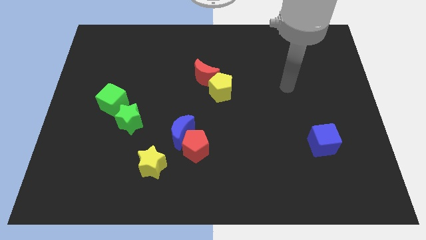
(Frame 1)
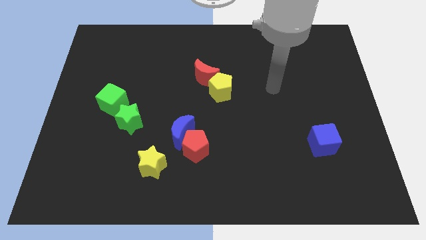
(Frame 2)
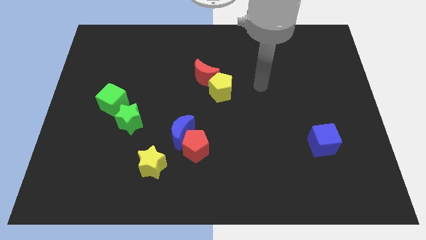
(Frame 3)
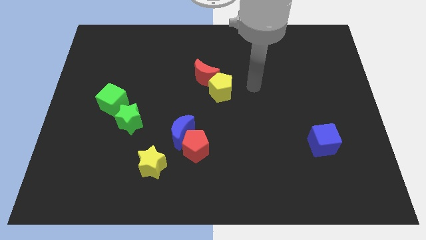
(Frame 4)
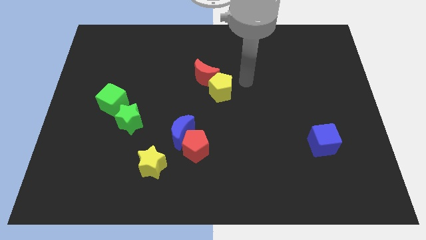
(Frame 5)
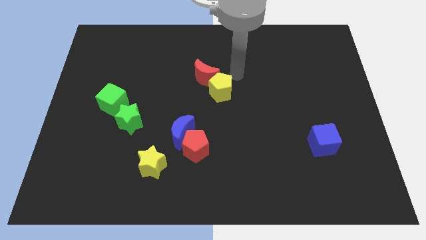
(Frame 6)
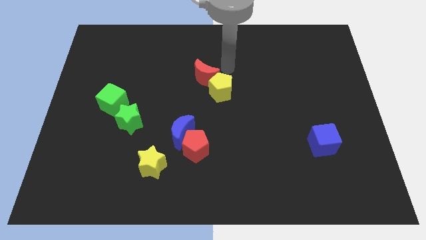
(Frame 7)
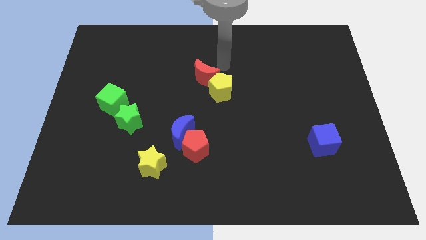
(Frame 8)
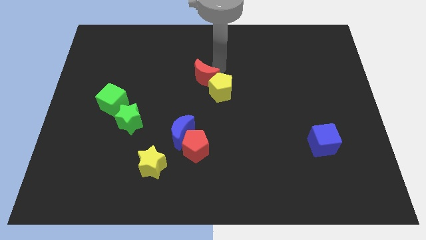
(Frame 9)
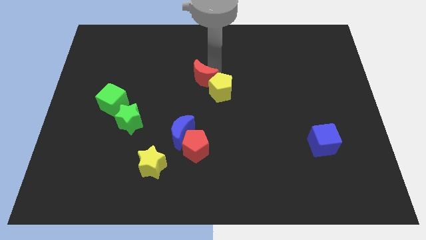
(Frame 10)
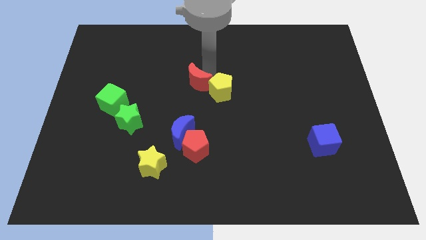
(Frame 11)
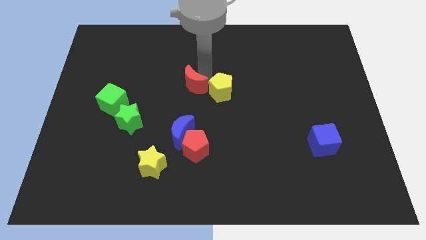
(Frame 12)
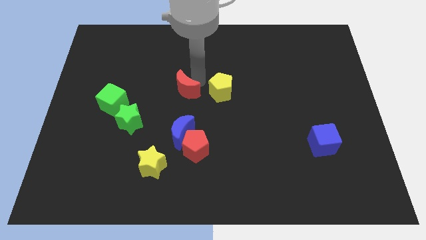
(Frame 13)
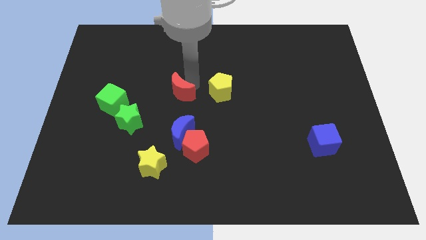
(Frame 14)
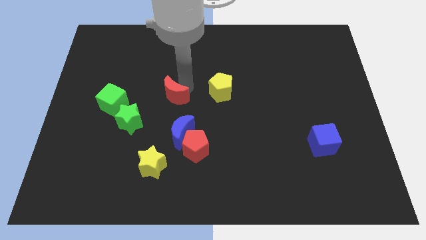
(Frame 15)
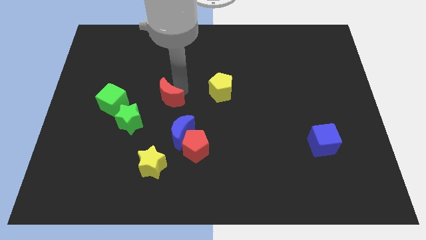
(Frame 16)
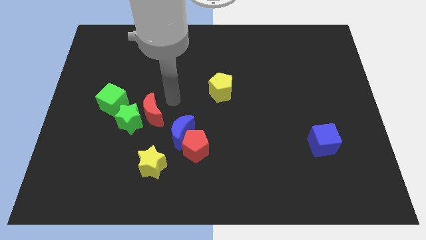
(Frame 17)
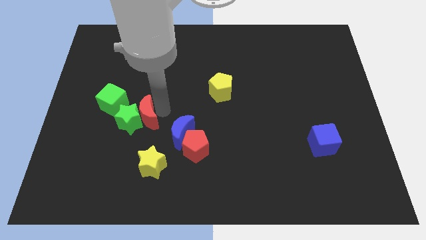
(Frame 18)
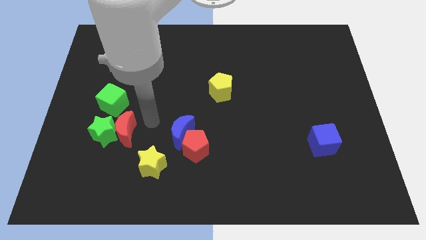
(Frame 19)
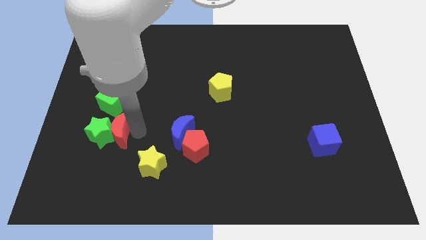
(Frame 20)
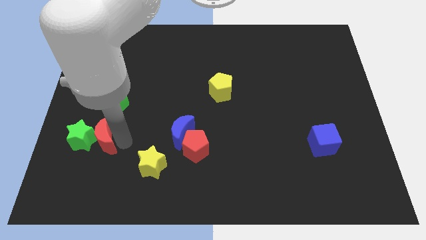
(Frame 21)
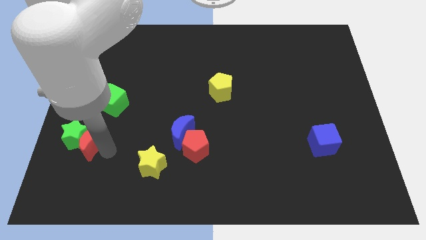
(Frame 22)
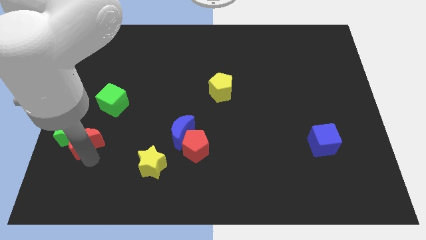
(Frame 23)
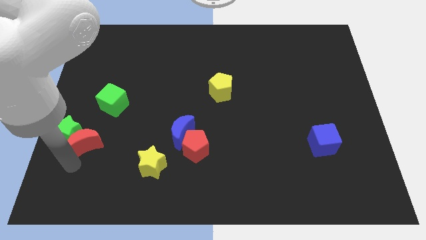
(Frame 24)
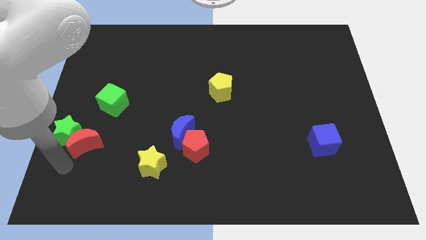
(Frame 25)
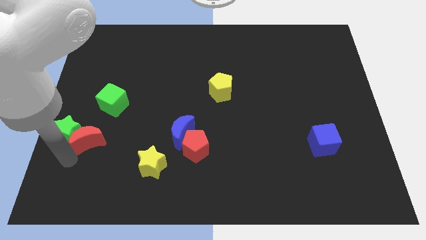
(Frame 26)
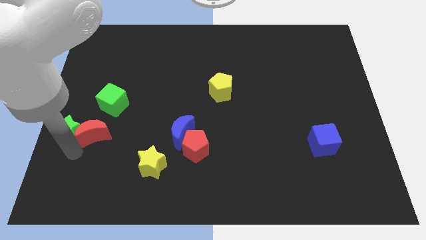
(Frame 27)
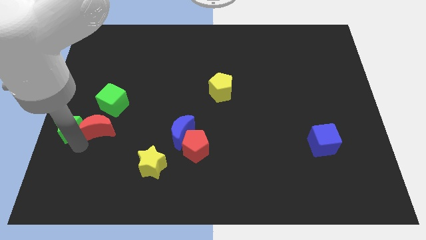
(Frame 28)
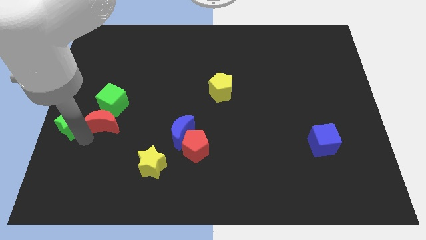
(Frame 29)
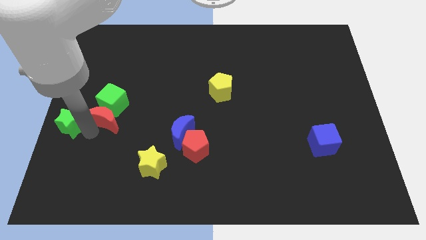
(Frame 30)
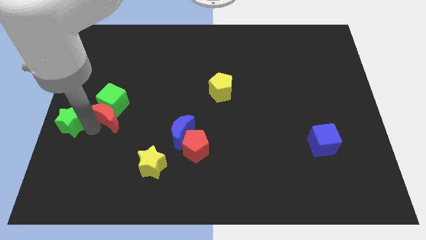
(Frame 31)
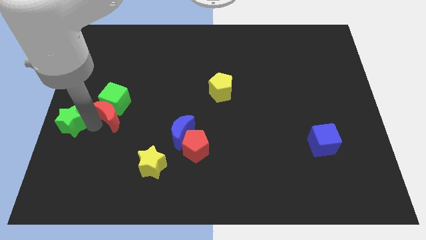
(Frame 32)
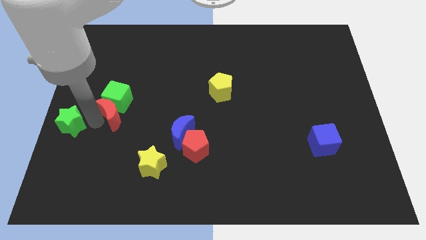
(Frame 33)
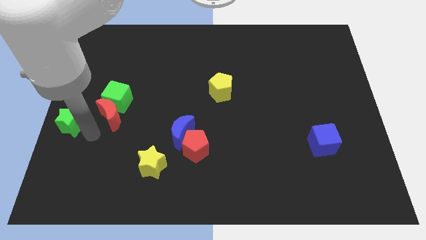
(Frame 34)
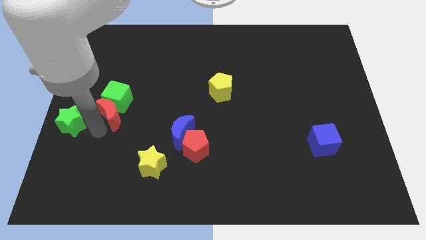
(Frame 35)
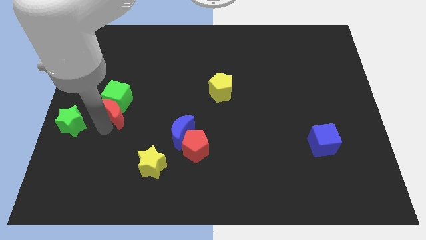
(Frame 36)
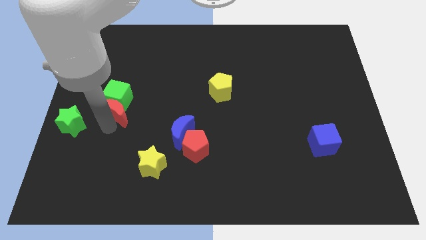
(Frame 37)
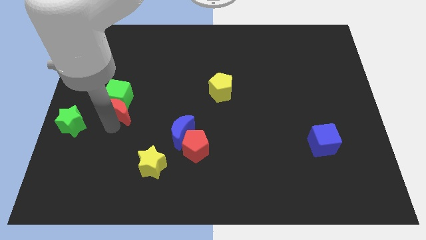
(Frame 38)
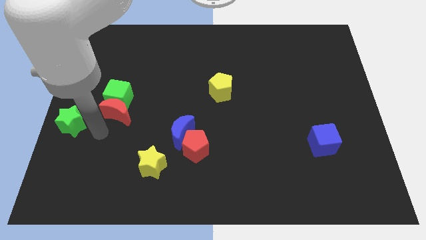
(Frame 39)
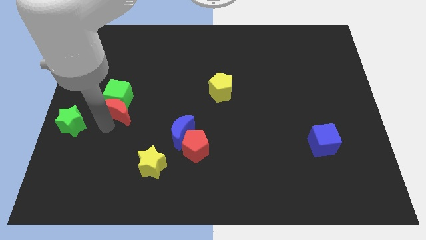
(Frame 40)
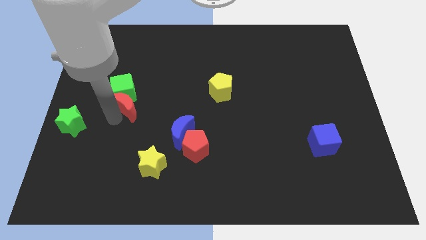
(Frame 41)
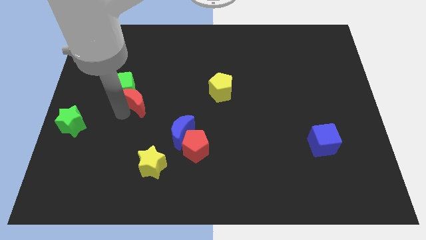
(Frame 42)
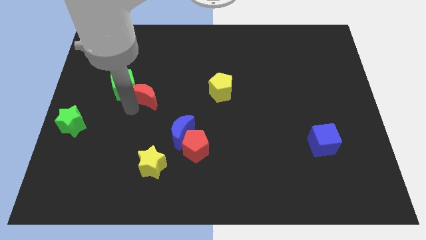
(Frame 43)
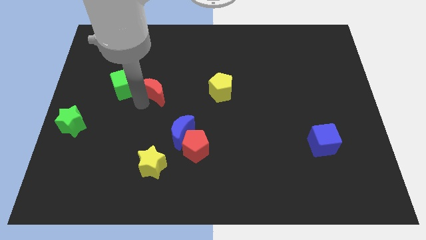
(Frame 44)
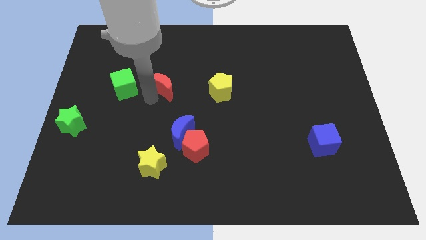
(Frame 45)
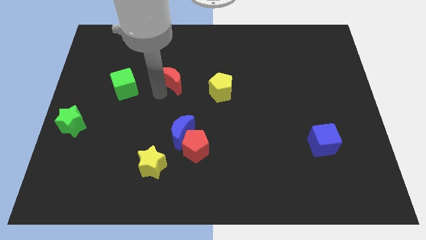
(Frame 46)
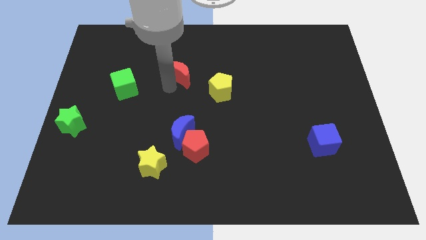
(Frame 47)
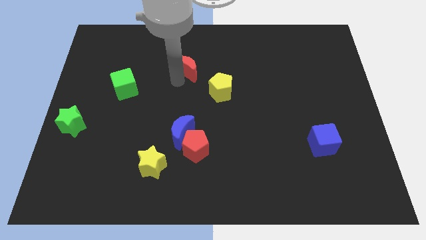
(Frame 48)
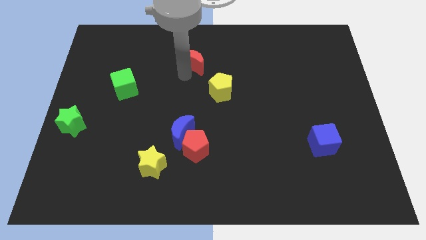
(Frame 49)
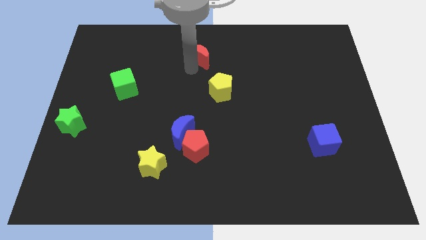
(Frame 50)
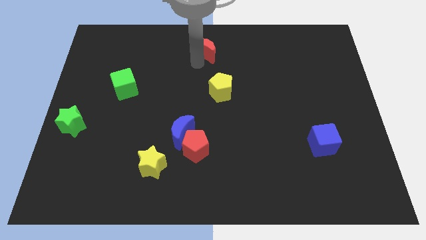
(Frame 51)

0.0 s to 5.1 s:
put the red moon to the towards your base

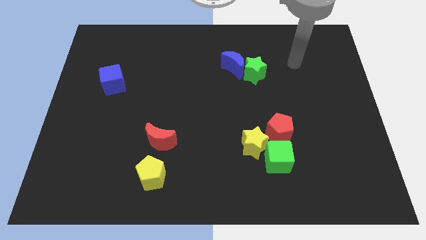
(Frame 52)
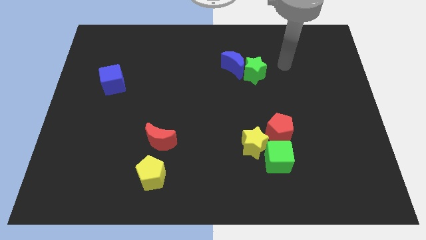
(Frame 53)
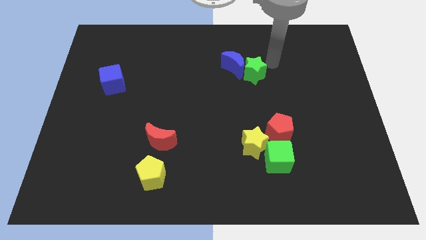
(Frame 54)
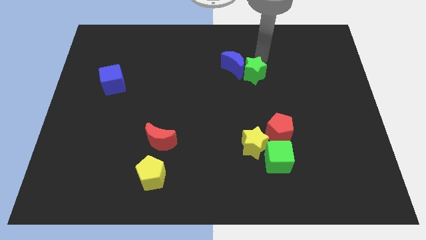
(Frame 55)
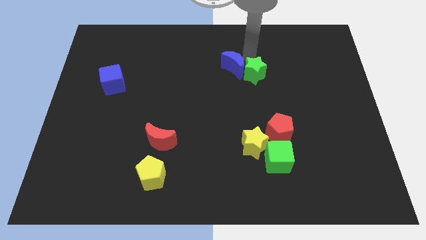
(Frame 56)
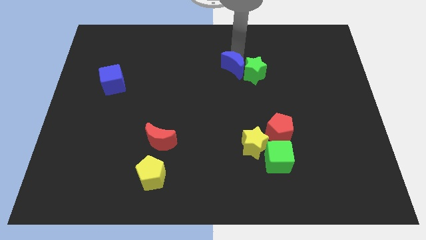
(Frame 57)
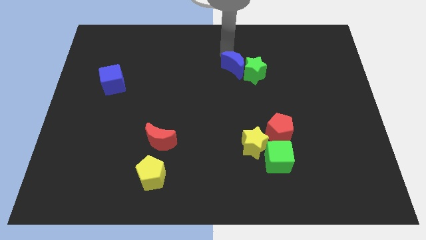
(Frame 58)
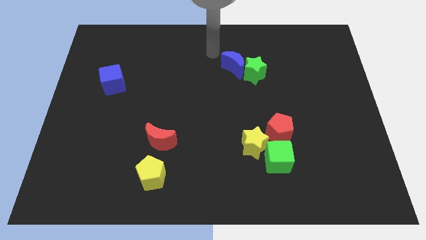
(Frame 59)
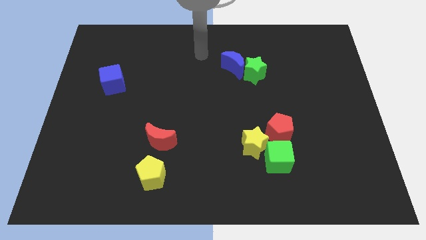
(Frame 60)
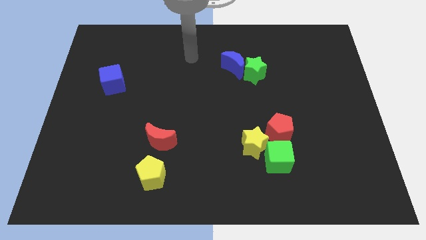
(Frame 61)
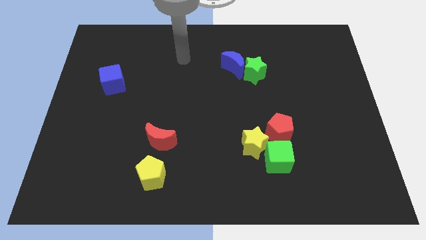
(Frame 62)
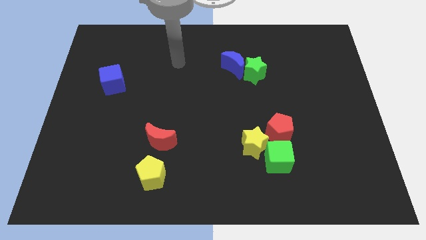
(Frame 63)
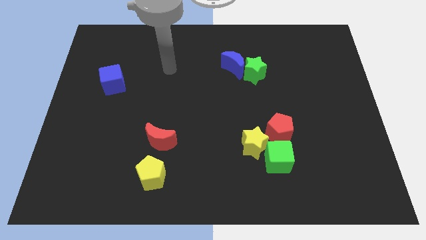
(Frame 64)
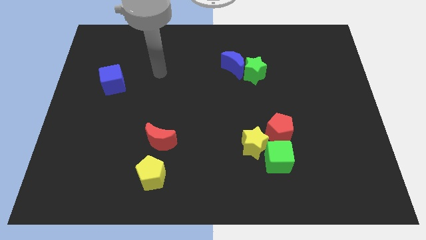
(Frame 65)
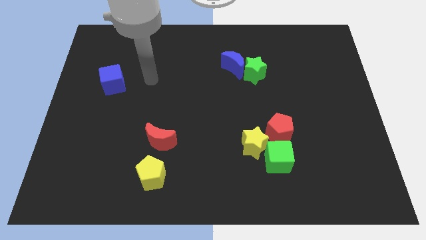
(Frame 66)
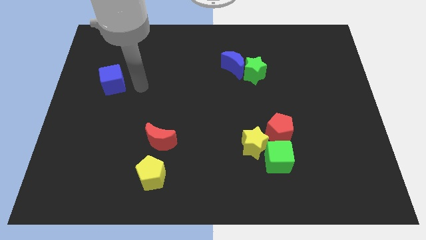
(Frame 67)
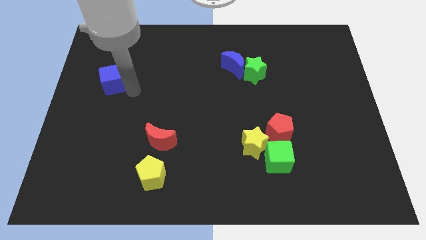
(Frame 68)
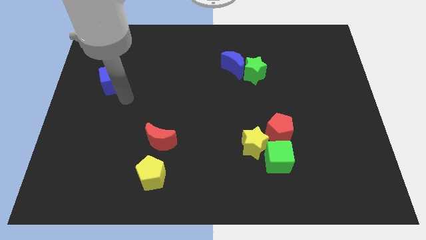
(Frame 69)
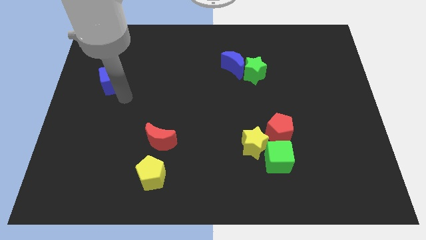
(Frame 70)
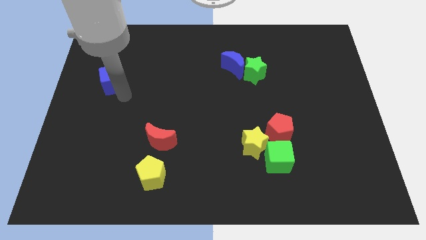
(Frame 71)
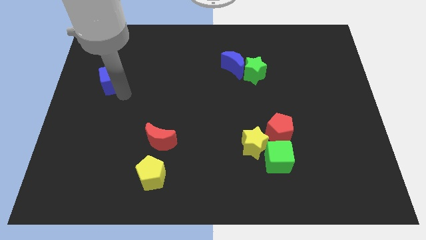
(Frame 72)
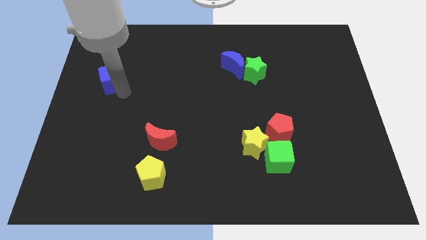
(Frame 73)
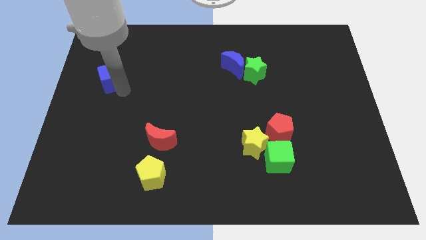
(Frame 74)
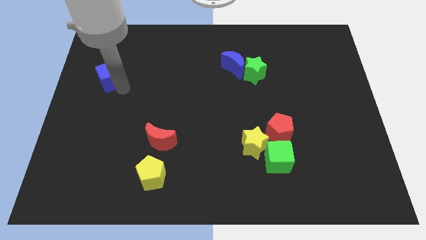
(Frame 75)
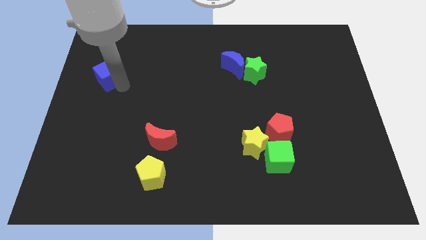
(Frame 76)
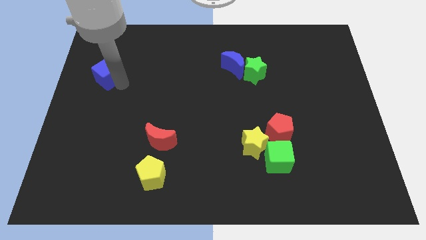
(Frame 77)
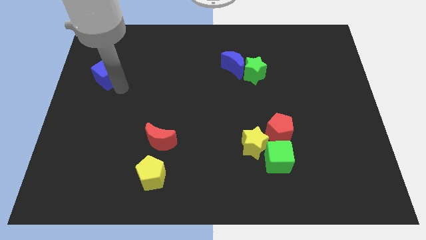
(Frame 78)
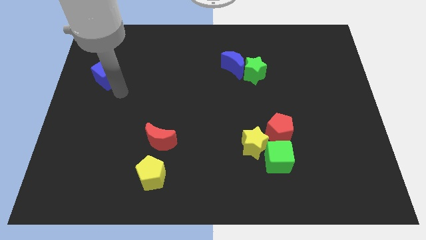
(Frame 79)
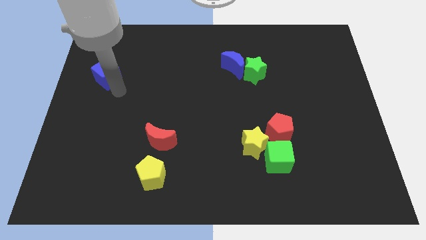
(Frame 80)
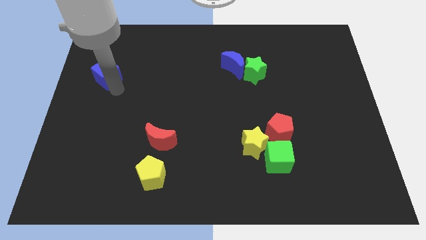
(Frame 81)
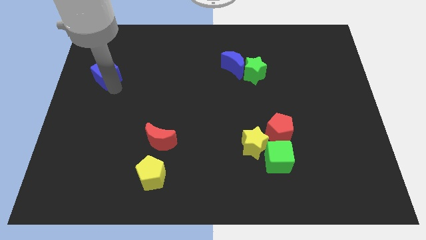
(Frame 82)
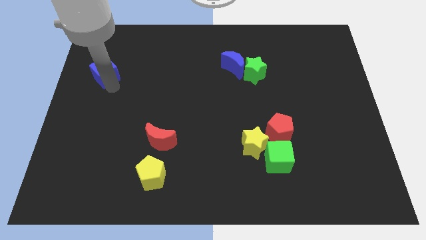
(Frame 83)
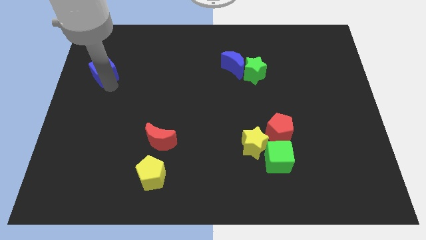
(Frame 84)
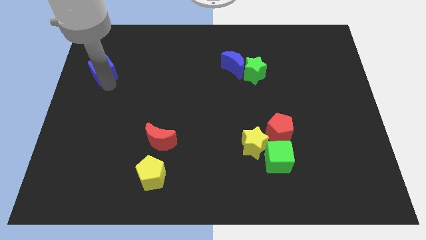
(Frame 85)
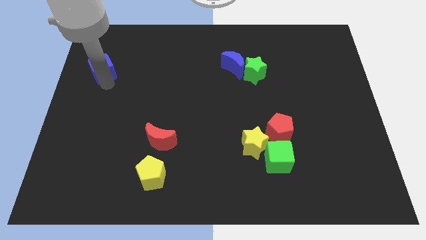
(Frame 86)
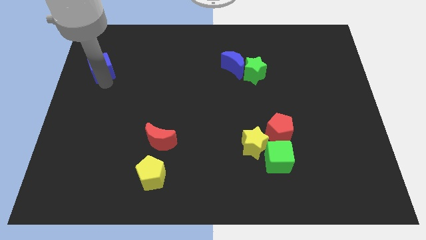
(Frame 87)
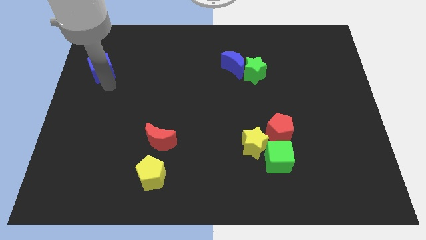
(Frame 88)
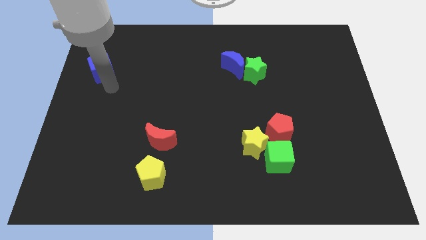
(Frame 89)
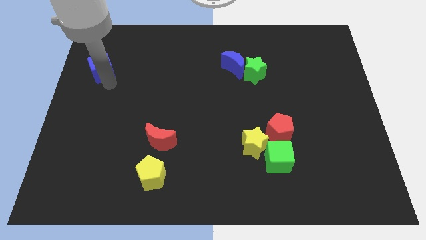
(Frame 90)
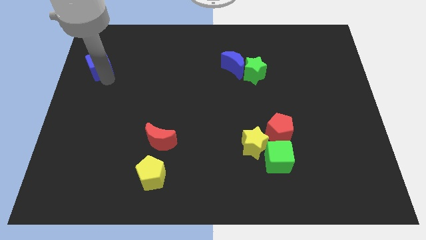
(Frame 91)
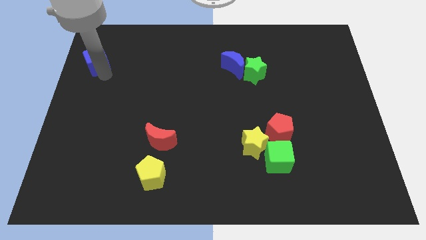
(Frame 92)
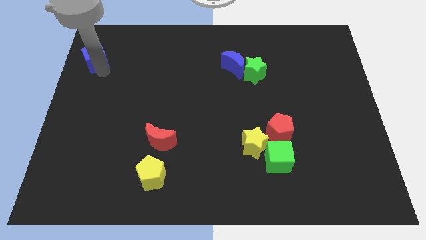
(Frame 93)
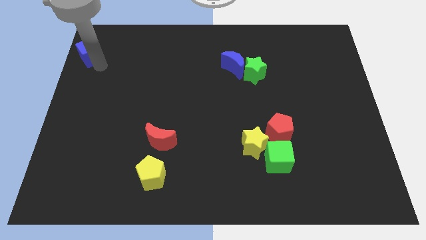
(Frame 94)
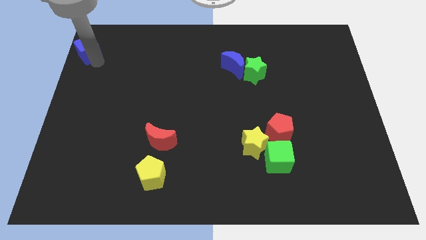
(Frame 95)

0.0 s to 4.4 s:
push the blue cube to the top left of the board
